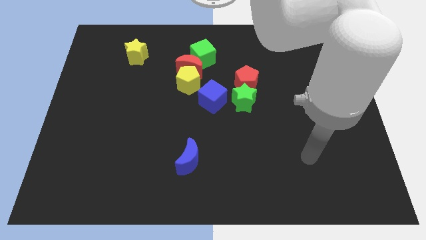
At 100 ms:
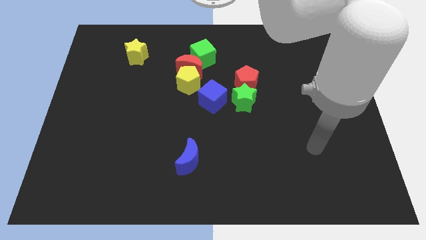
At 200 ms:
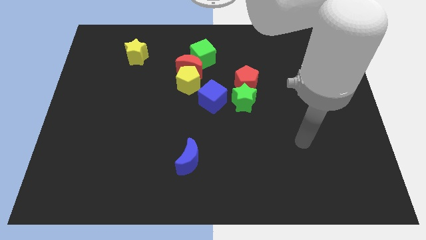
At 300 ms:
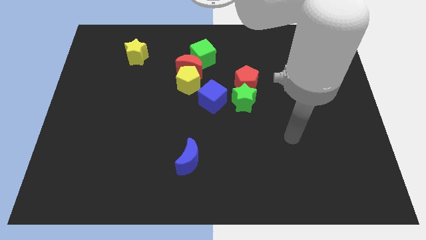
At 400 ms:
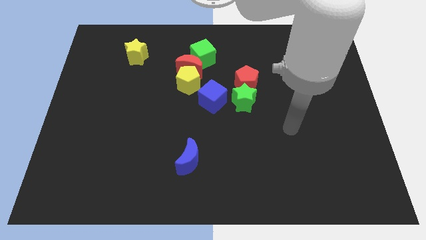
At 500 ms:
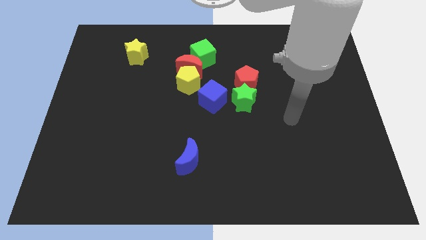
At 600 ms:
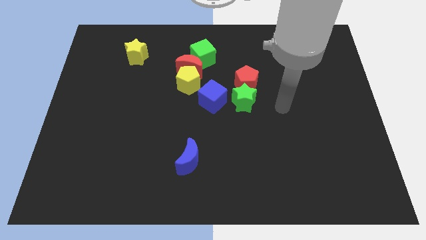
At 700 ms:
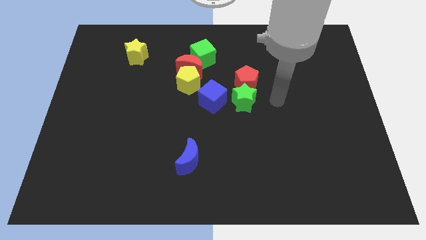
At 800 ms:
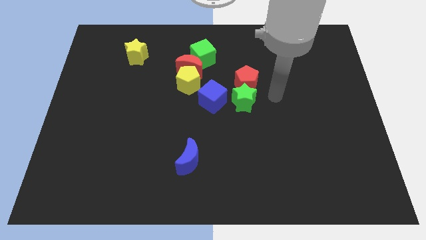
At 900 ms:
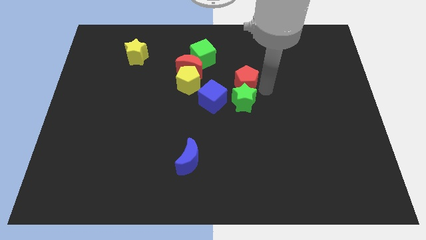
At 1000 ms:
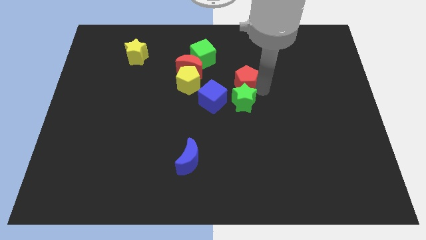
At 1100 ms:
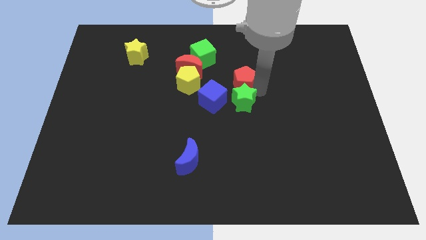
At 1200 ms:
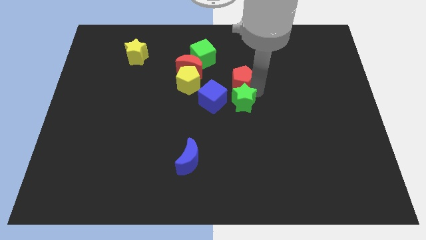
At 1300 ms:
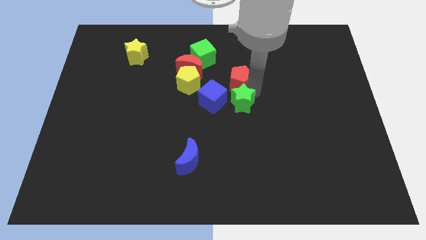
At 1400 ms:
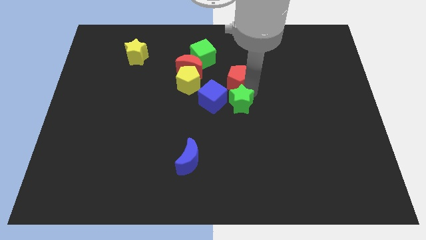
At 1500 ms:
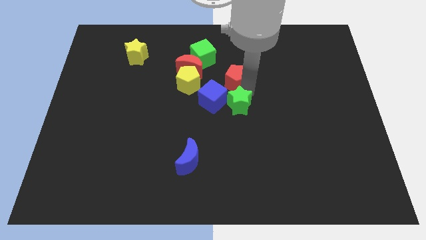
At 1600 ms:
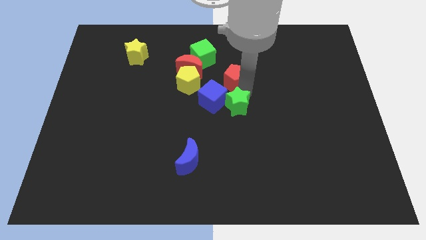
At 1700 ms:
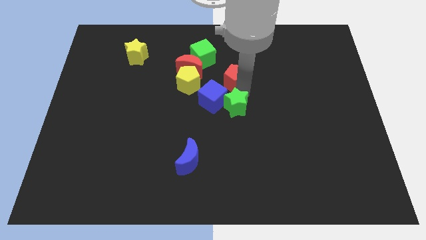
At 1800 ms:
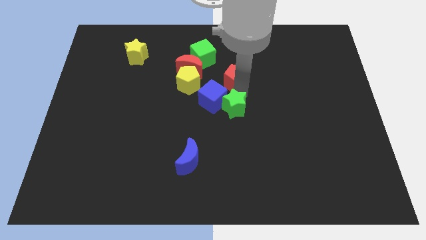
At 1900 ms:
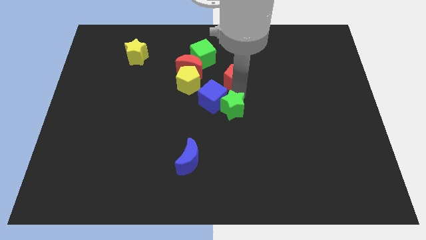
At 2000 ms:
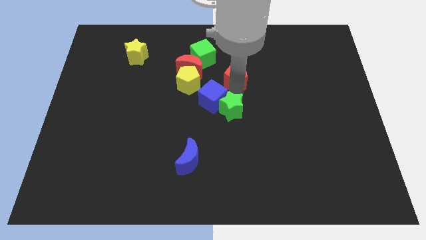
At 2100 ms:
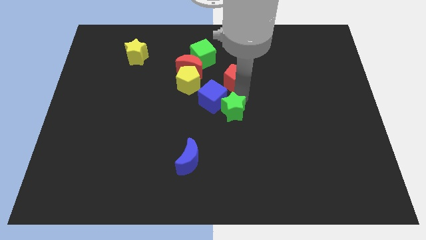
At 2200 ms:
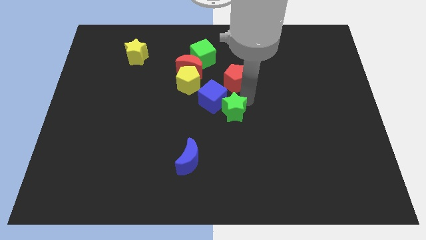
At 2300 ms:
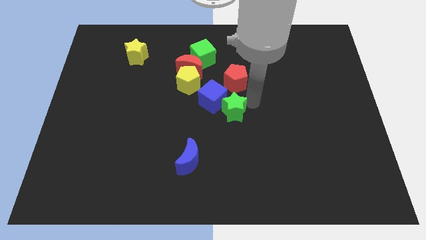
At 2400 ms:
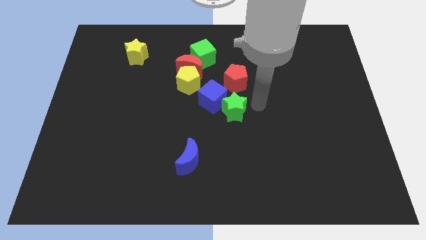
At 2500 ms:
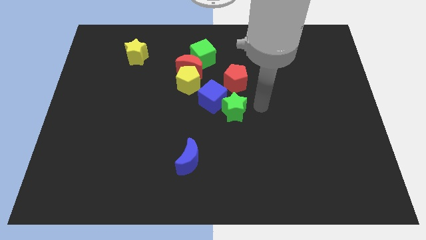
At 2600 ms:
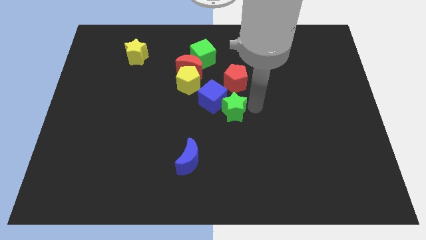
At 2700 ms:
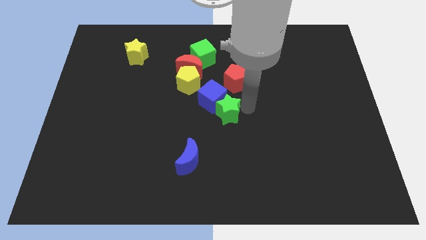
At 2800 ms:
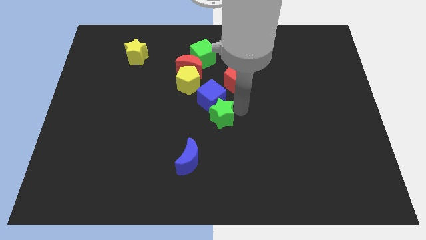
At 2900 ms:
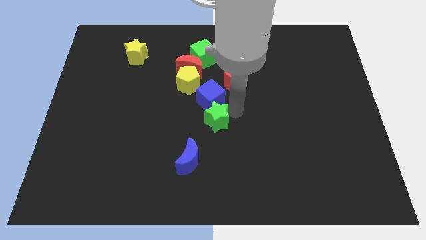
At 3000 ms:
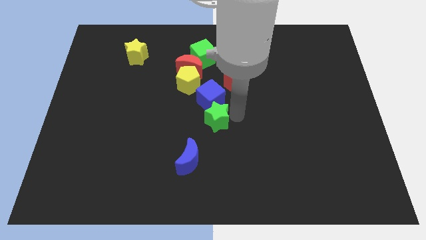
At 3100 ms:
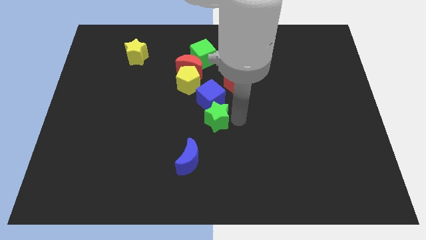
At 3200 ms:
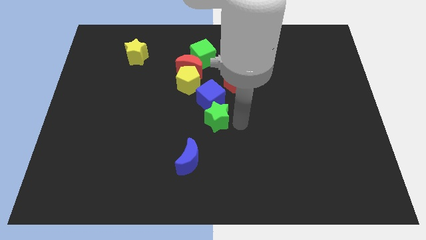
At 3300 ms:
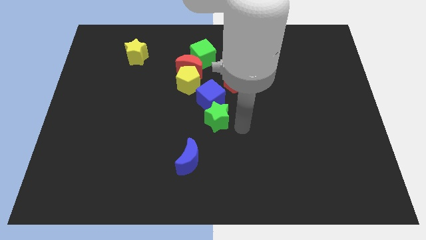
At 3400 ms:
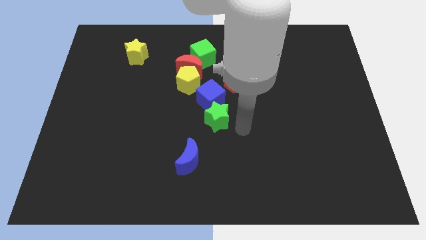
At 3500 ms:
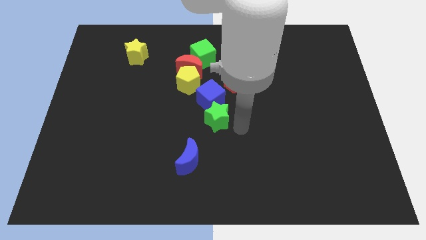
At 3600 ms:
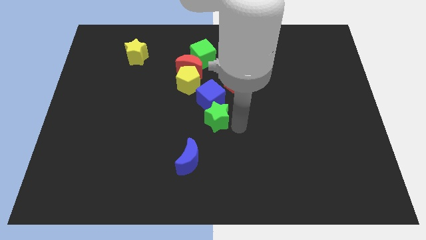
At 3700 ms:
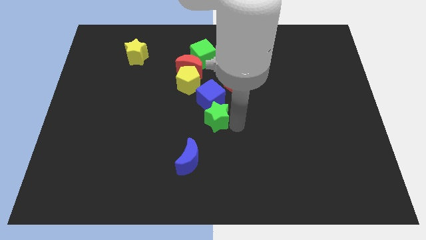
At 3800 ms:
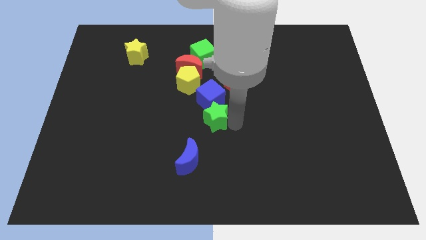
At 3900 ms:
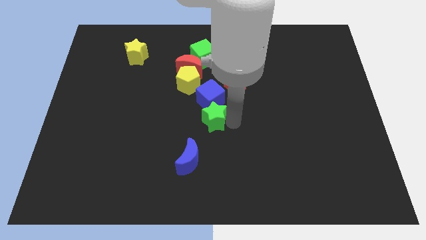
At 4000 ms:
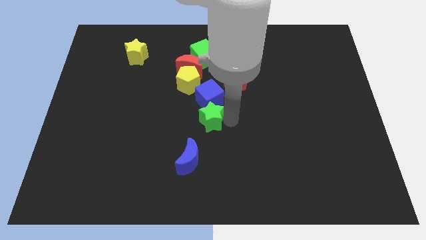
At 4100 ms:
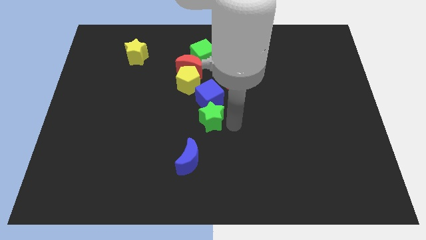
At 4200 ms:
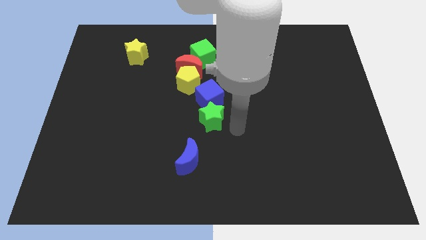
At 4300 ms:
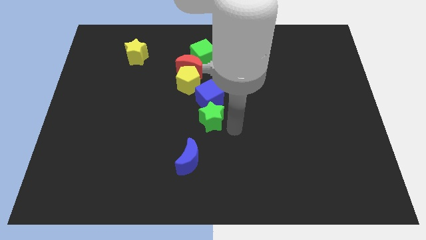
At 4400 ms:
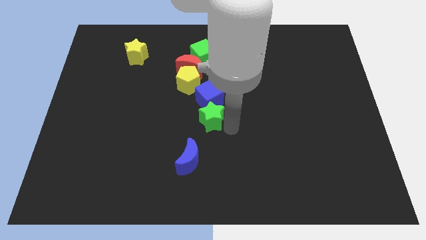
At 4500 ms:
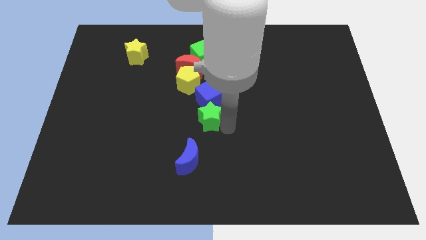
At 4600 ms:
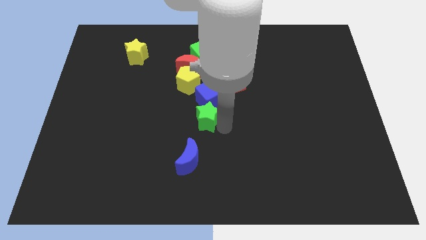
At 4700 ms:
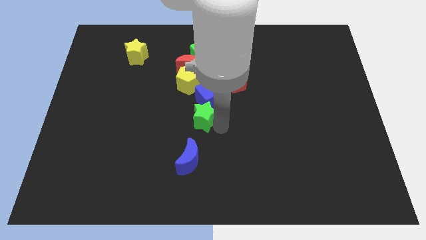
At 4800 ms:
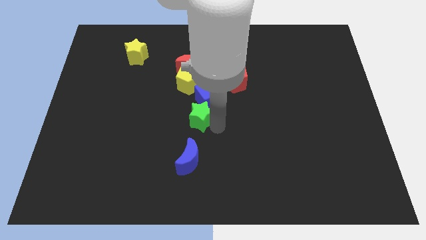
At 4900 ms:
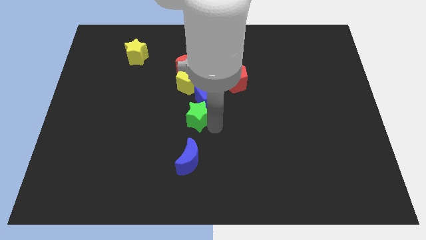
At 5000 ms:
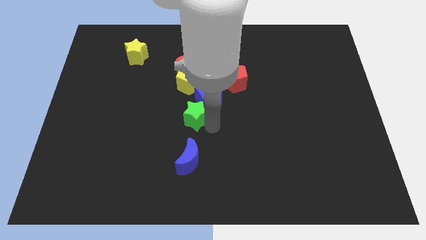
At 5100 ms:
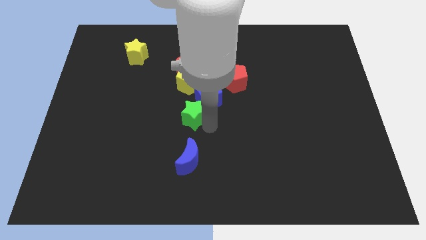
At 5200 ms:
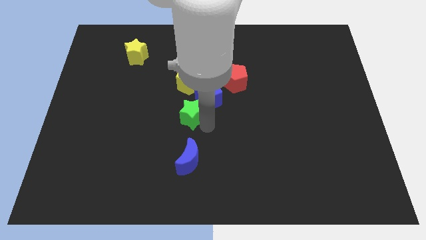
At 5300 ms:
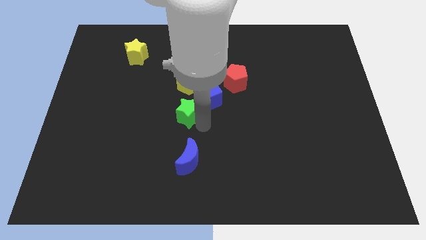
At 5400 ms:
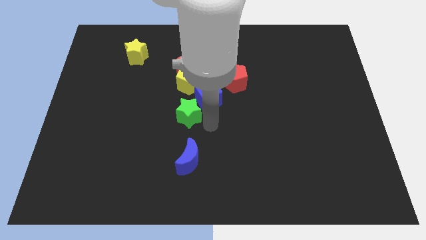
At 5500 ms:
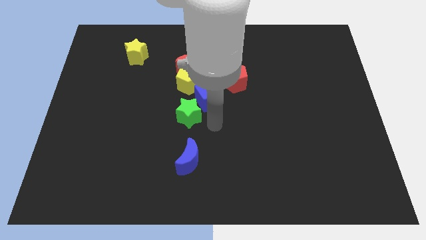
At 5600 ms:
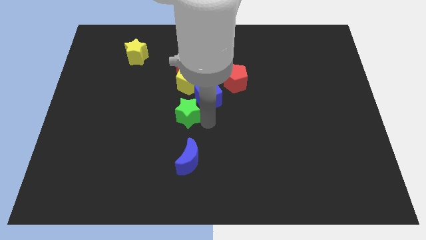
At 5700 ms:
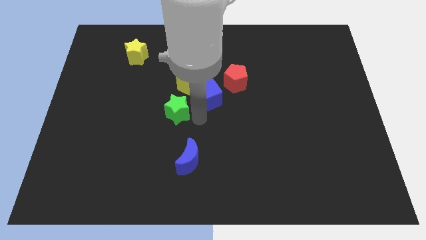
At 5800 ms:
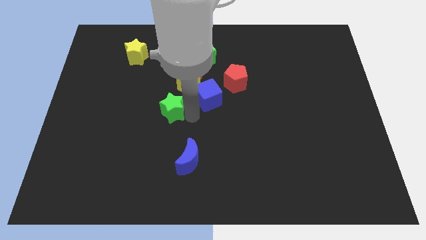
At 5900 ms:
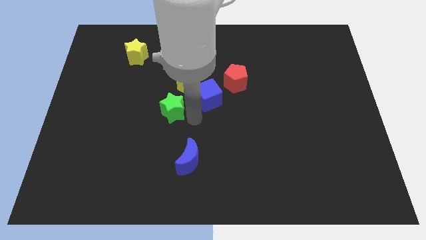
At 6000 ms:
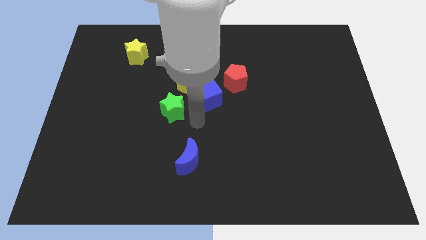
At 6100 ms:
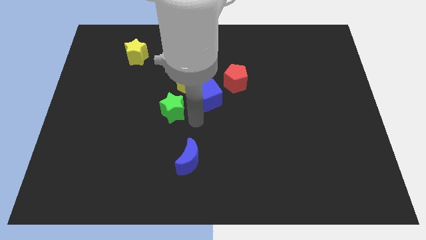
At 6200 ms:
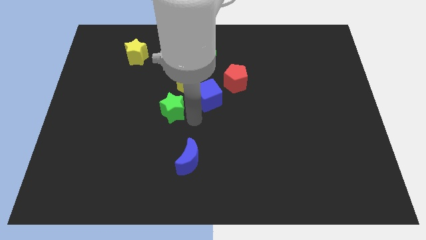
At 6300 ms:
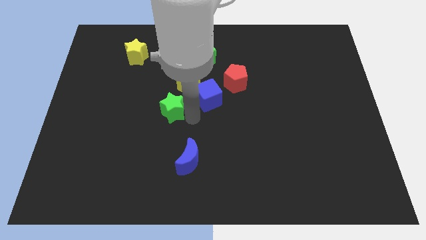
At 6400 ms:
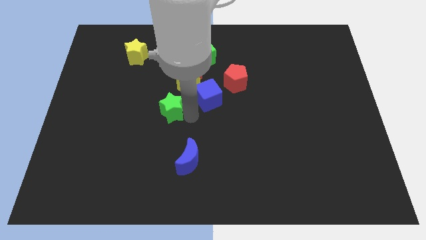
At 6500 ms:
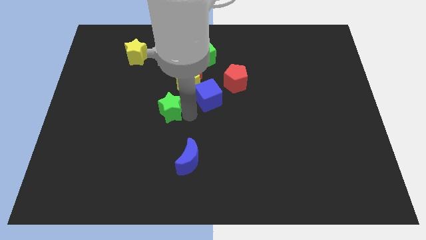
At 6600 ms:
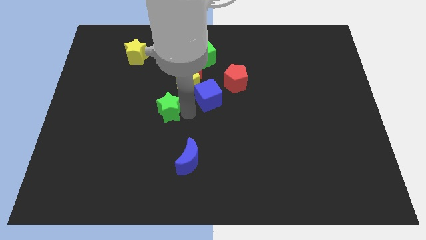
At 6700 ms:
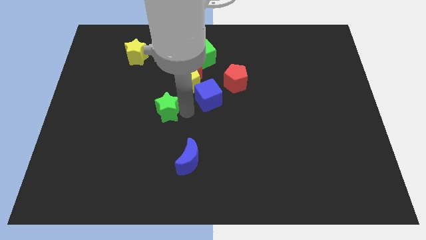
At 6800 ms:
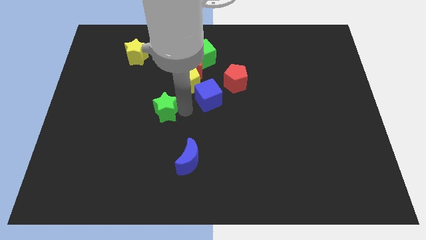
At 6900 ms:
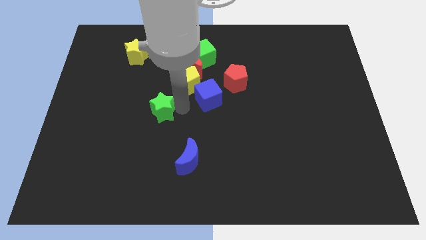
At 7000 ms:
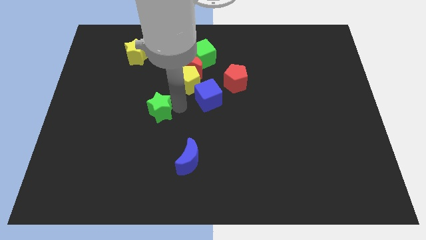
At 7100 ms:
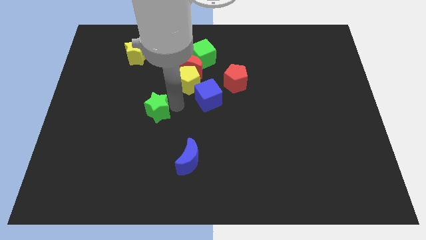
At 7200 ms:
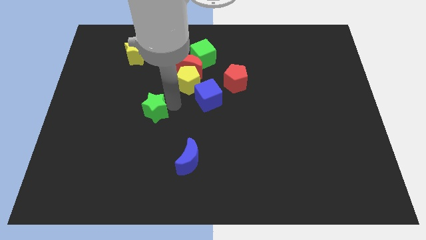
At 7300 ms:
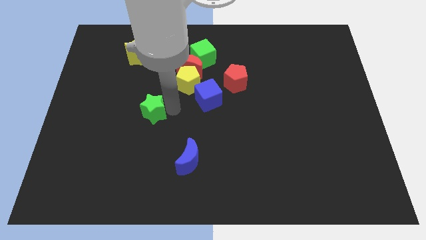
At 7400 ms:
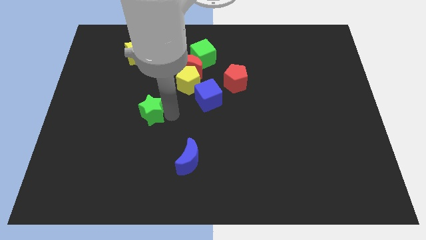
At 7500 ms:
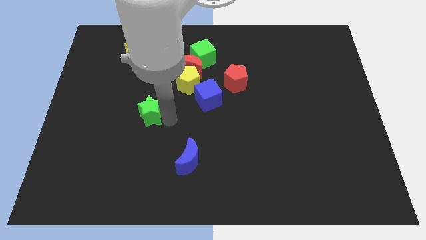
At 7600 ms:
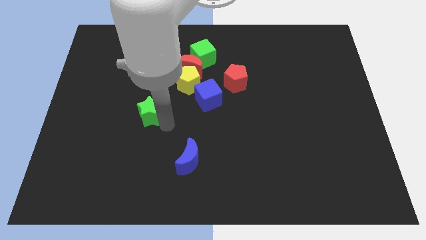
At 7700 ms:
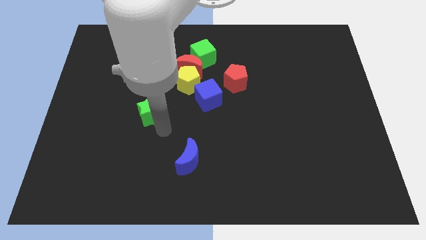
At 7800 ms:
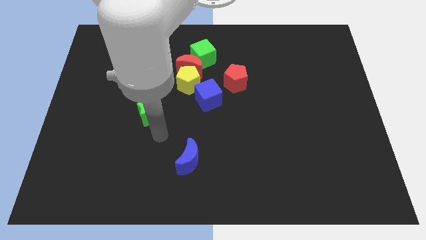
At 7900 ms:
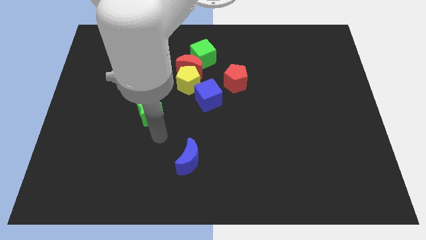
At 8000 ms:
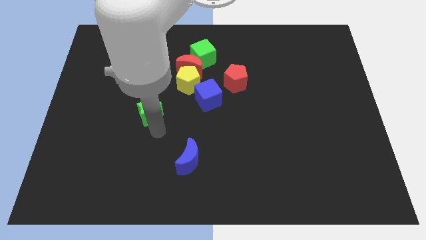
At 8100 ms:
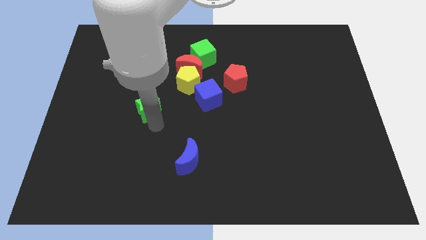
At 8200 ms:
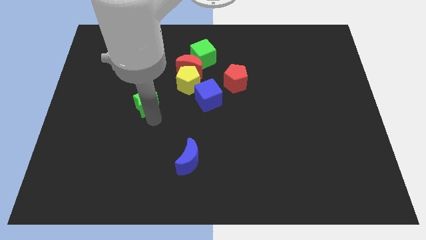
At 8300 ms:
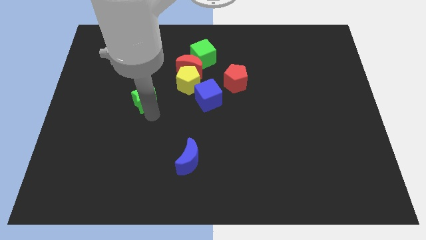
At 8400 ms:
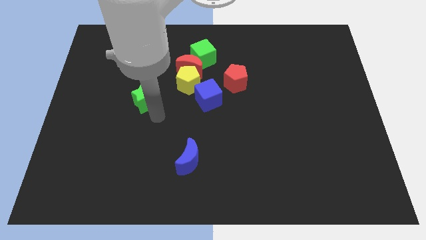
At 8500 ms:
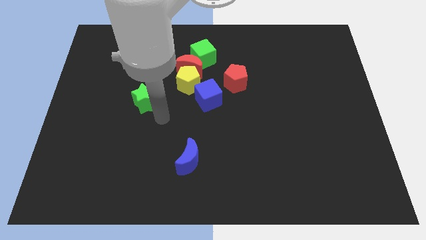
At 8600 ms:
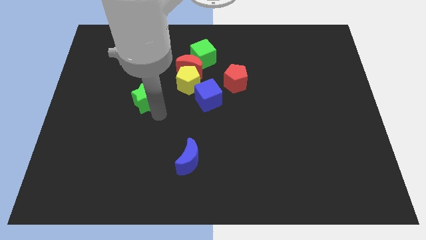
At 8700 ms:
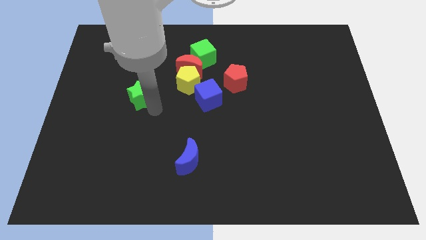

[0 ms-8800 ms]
move the green star to the bottom of the yellow star
